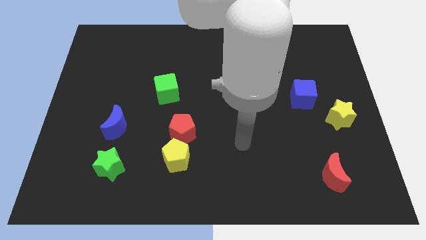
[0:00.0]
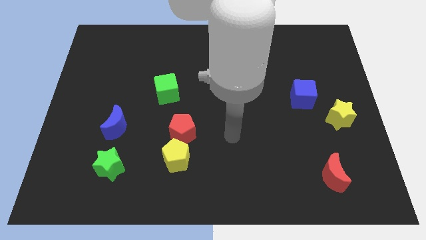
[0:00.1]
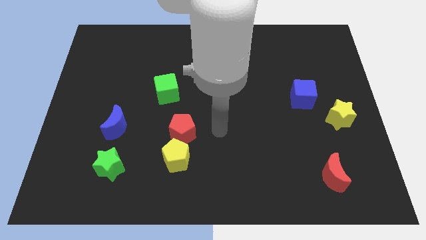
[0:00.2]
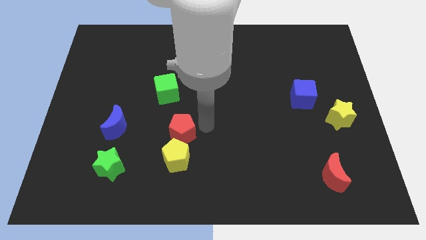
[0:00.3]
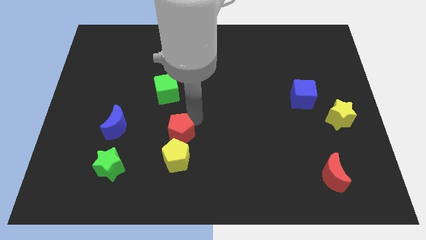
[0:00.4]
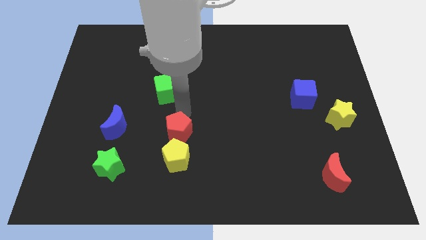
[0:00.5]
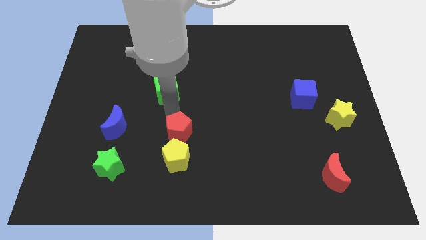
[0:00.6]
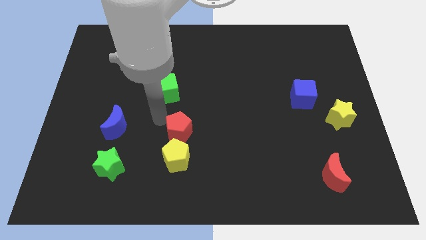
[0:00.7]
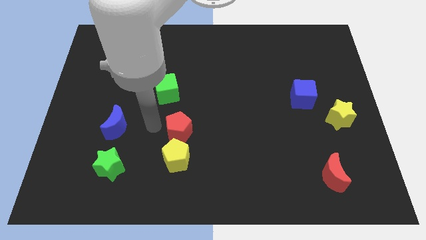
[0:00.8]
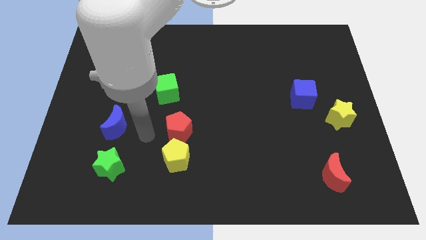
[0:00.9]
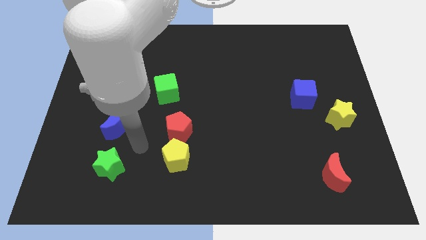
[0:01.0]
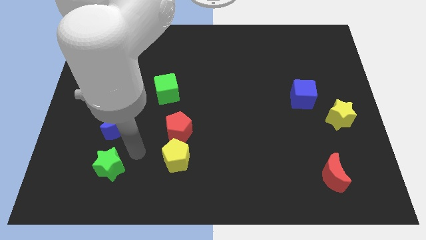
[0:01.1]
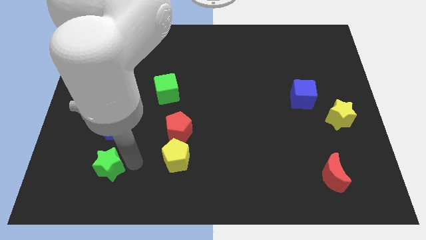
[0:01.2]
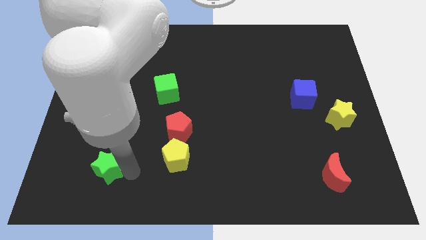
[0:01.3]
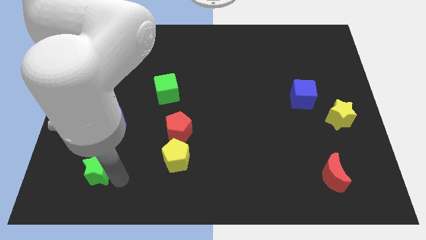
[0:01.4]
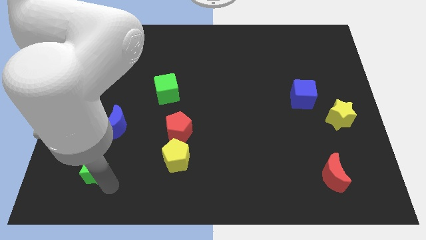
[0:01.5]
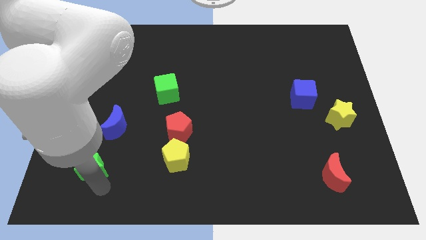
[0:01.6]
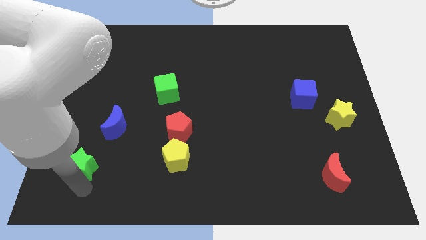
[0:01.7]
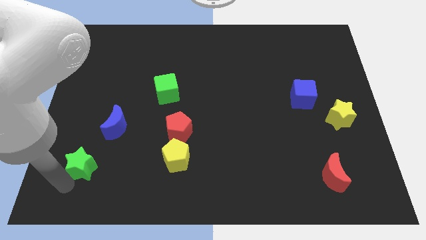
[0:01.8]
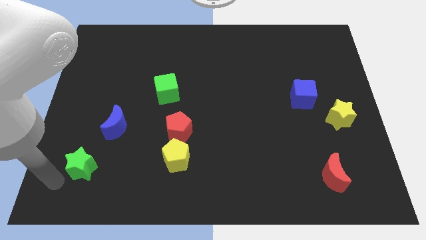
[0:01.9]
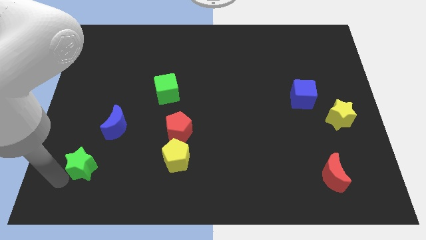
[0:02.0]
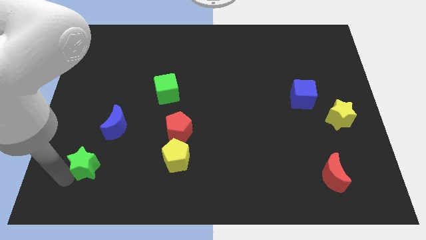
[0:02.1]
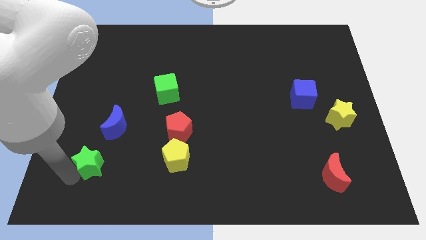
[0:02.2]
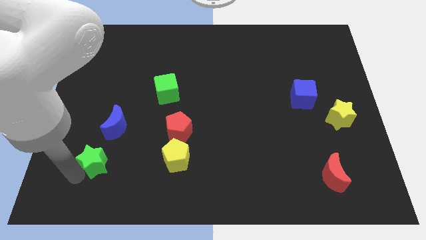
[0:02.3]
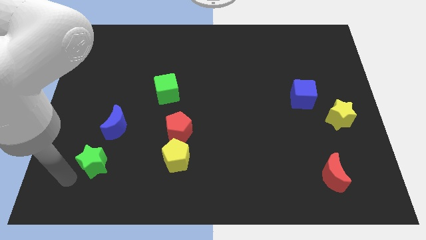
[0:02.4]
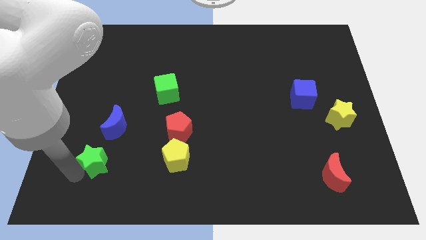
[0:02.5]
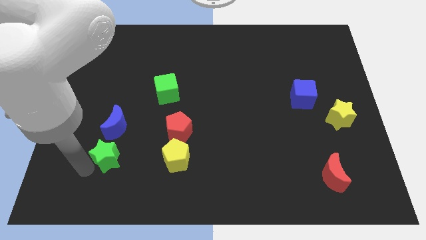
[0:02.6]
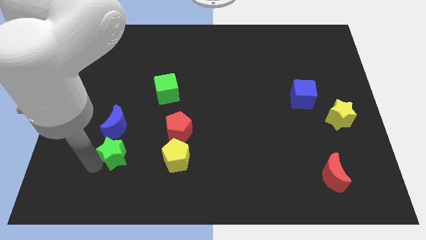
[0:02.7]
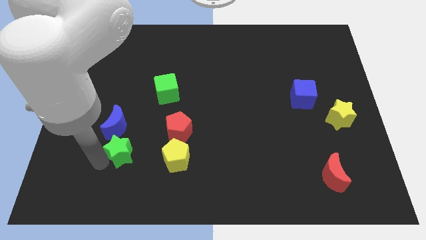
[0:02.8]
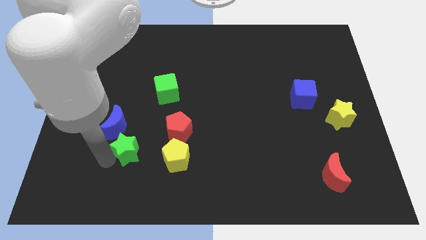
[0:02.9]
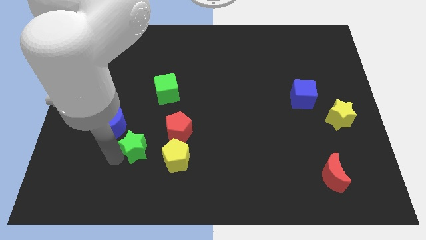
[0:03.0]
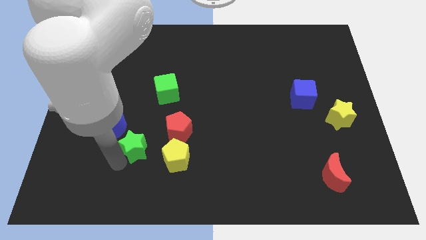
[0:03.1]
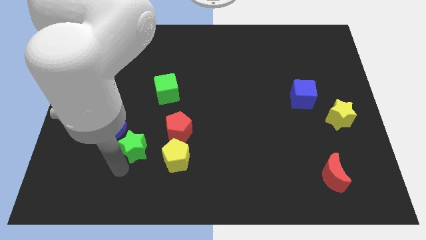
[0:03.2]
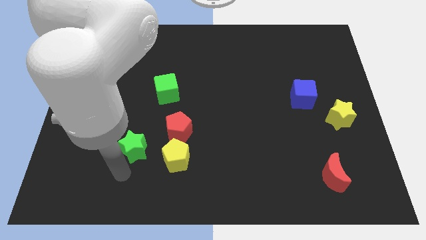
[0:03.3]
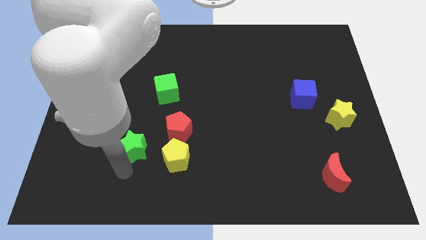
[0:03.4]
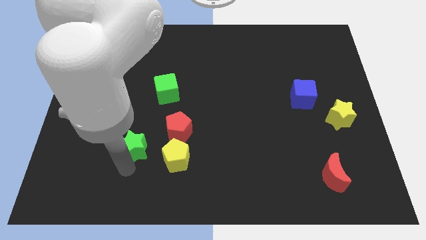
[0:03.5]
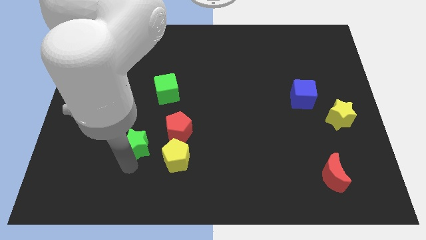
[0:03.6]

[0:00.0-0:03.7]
slightly slide the green star up and to the right diagonally

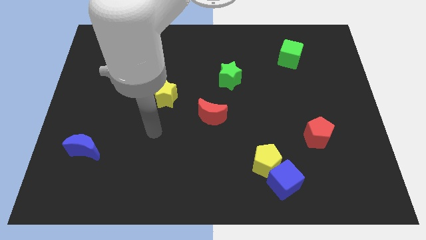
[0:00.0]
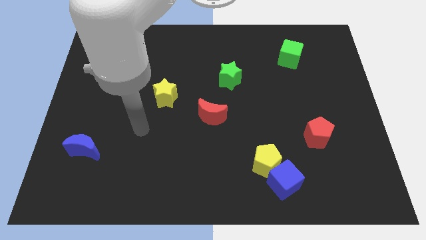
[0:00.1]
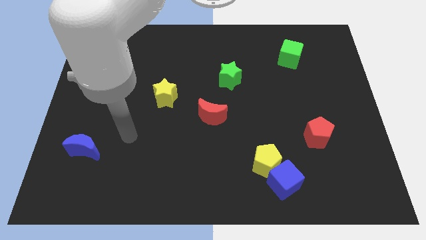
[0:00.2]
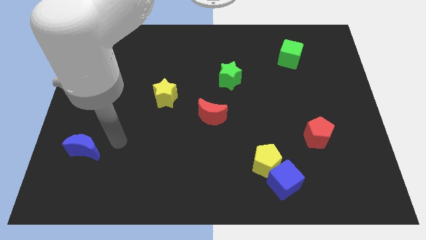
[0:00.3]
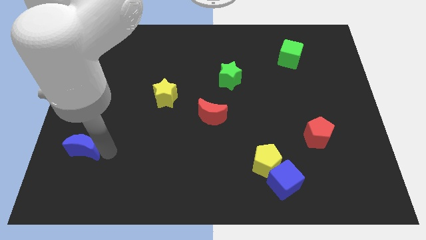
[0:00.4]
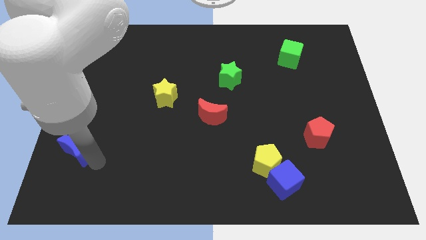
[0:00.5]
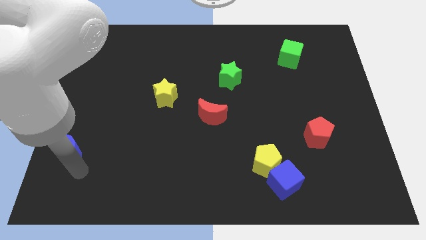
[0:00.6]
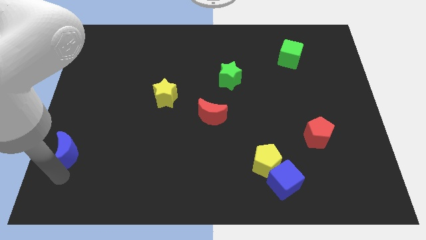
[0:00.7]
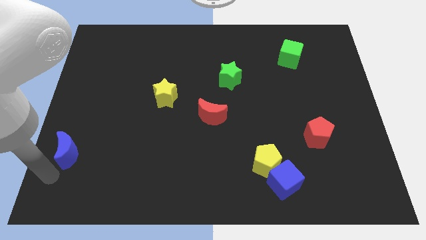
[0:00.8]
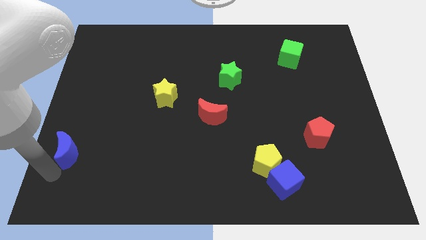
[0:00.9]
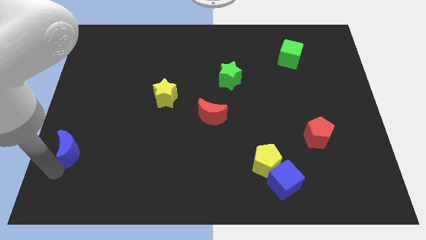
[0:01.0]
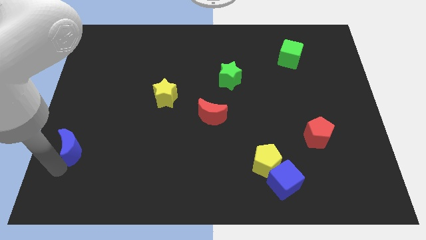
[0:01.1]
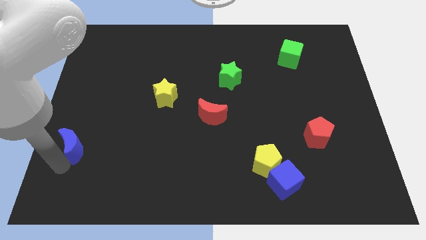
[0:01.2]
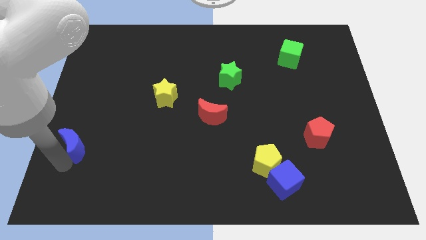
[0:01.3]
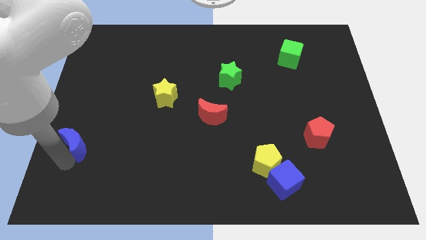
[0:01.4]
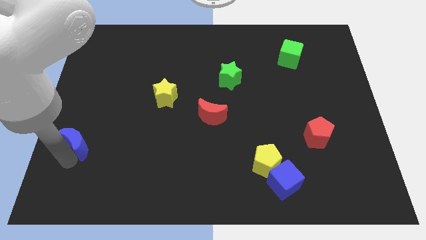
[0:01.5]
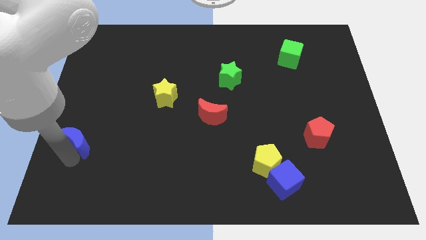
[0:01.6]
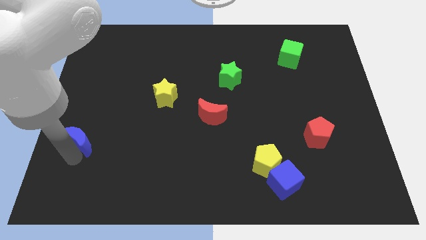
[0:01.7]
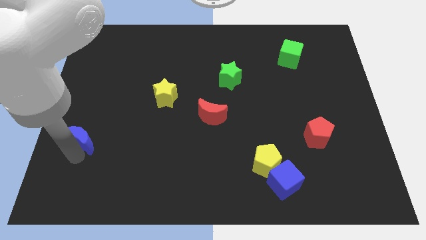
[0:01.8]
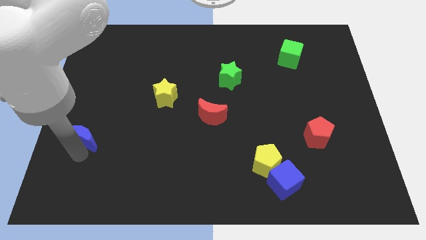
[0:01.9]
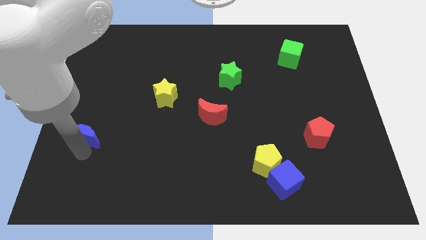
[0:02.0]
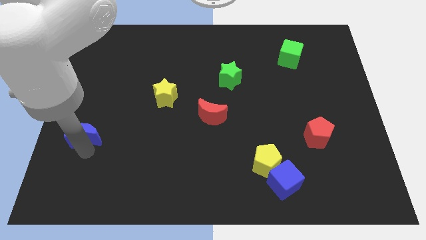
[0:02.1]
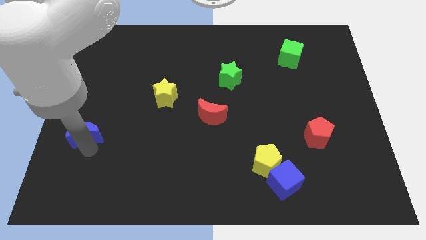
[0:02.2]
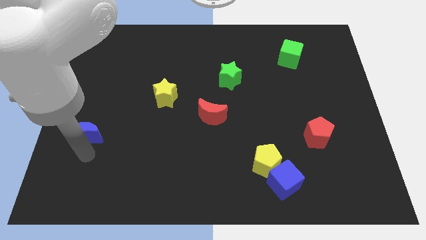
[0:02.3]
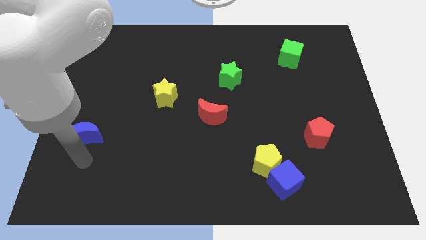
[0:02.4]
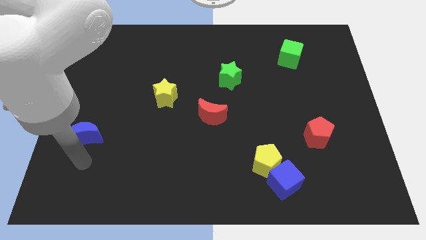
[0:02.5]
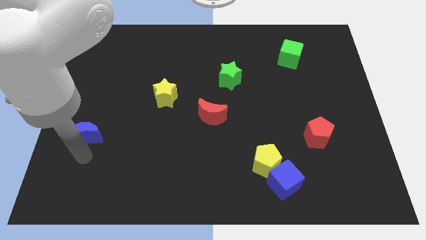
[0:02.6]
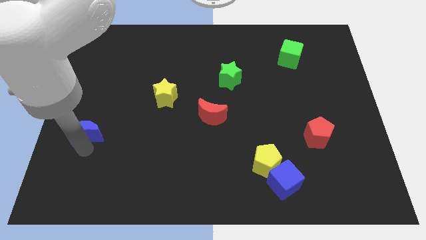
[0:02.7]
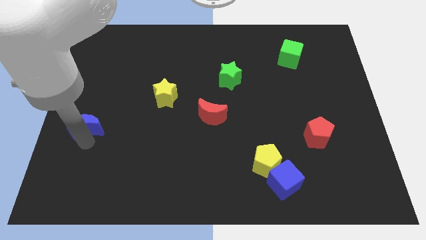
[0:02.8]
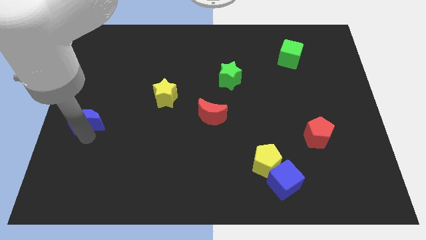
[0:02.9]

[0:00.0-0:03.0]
slightly move the blue moon up

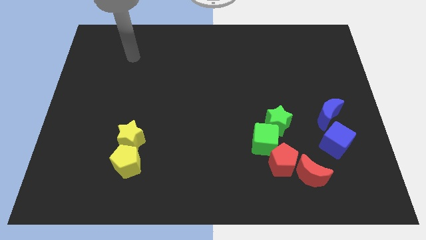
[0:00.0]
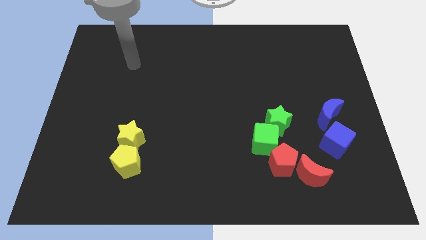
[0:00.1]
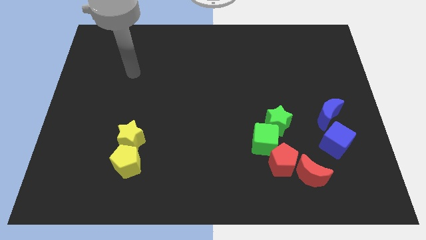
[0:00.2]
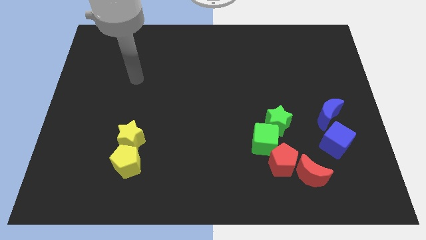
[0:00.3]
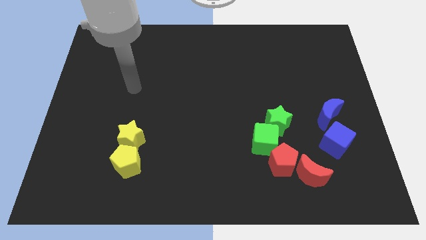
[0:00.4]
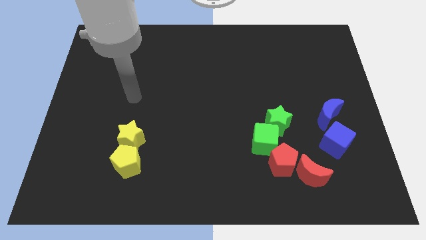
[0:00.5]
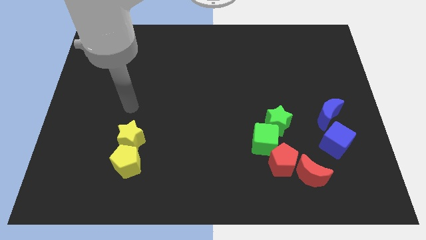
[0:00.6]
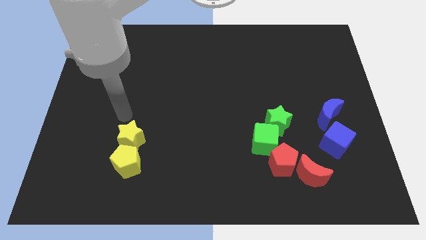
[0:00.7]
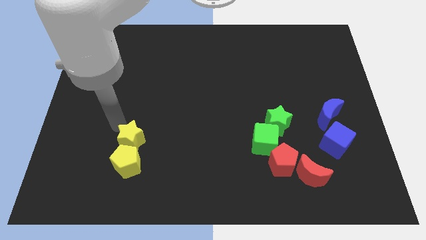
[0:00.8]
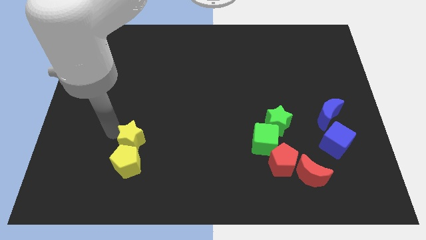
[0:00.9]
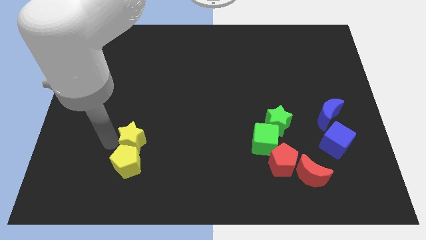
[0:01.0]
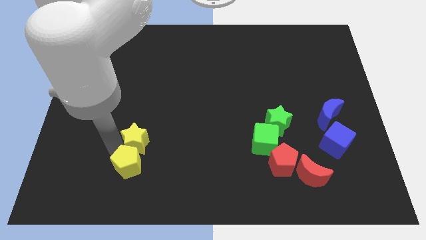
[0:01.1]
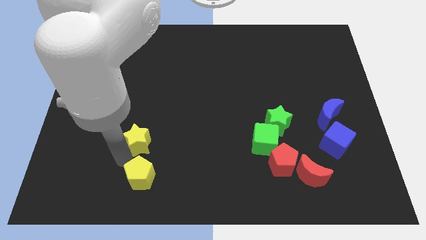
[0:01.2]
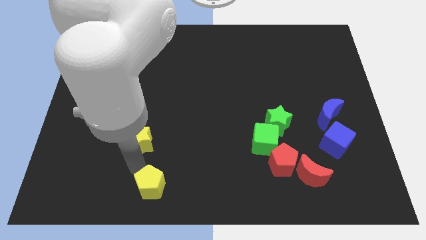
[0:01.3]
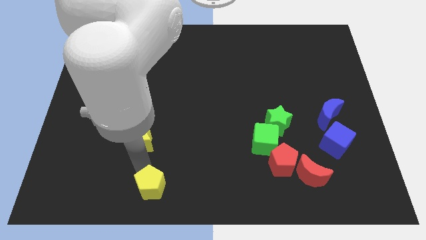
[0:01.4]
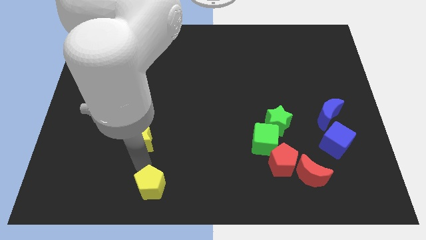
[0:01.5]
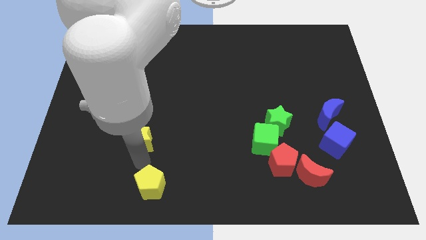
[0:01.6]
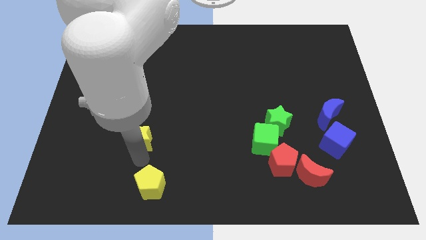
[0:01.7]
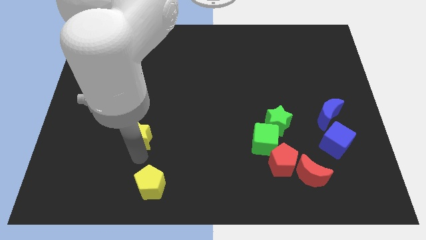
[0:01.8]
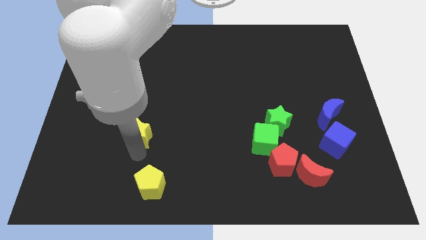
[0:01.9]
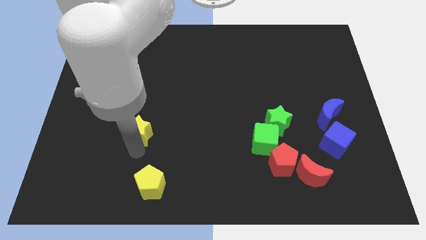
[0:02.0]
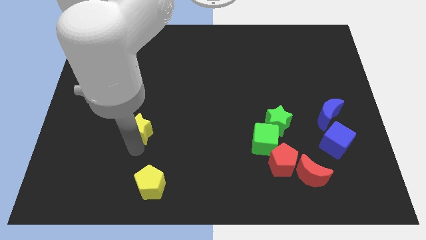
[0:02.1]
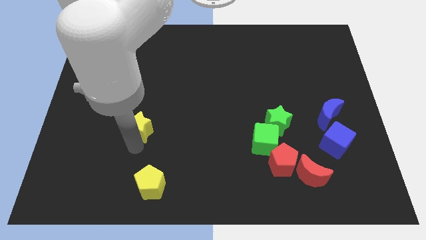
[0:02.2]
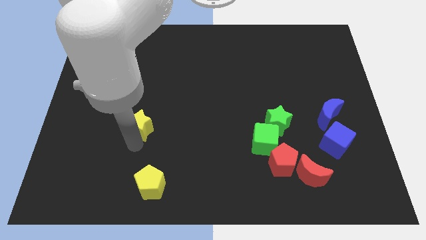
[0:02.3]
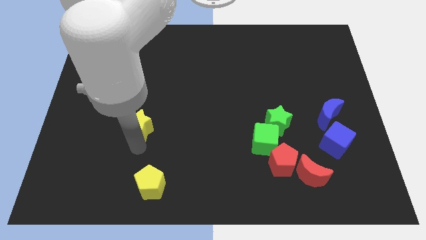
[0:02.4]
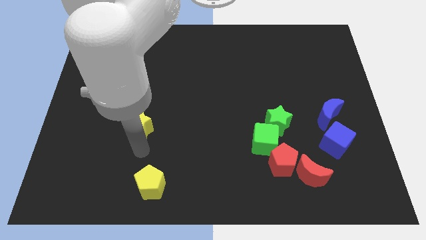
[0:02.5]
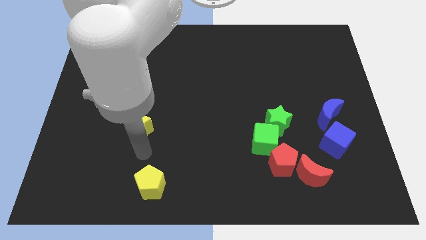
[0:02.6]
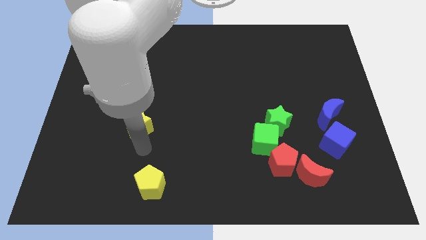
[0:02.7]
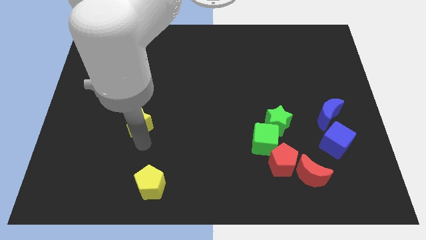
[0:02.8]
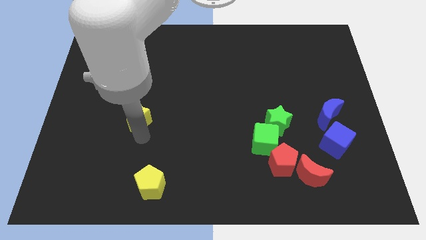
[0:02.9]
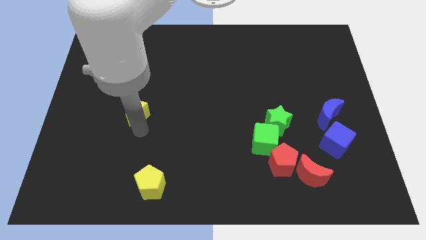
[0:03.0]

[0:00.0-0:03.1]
slide the yellow star slightly upwards
